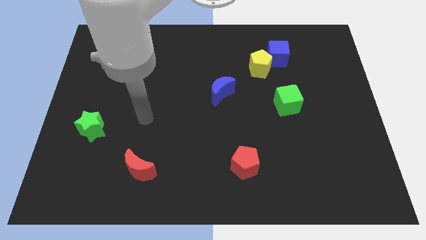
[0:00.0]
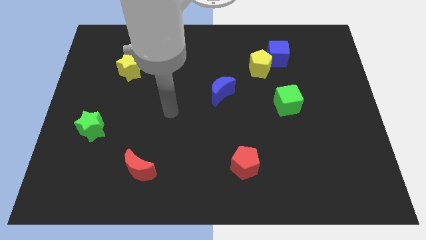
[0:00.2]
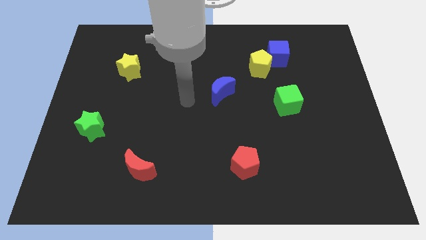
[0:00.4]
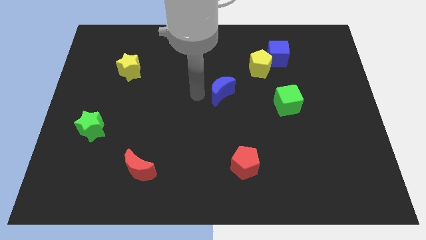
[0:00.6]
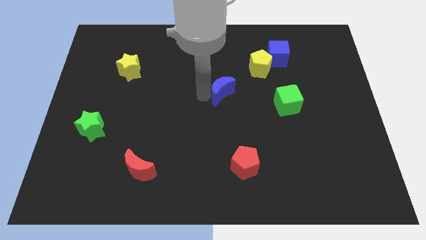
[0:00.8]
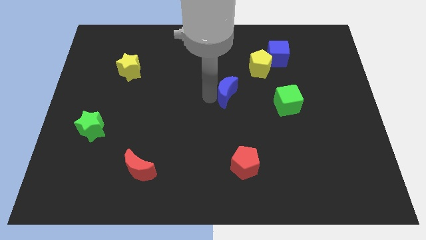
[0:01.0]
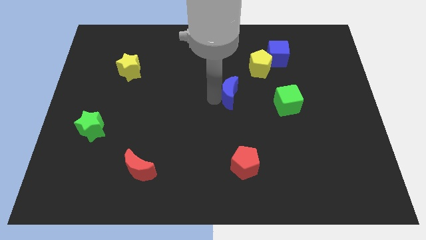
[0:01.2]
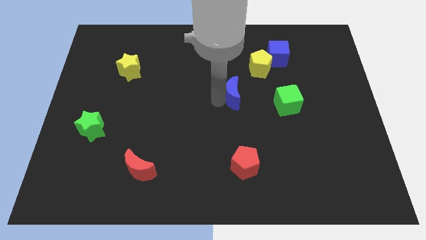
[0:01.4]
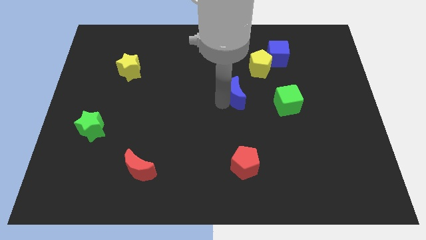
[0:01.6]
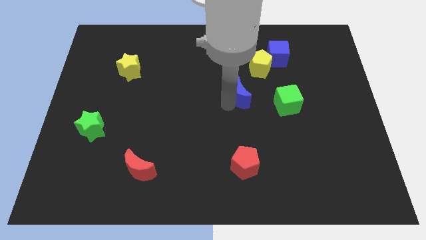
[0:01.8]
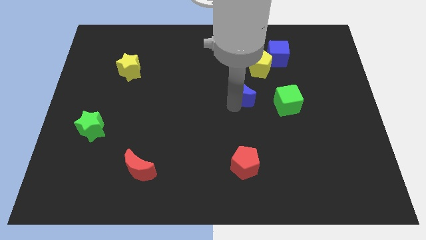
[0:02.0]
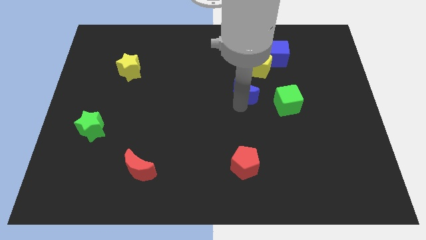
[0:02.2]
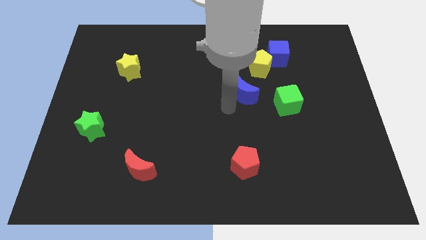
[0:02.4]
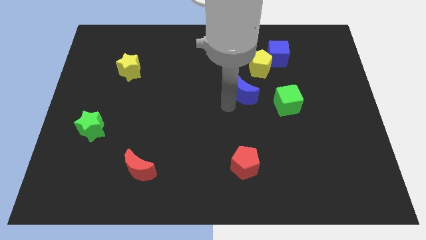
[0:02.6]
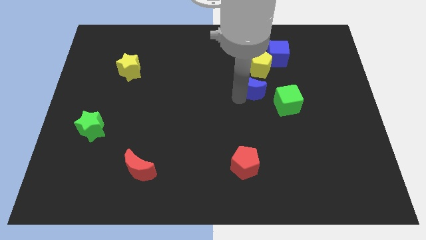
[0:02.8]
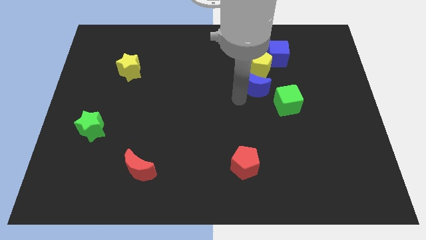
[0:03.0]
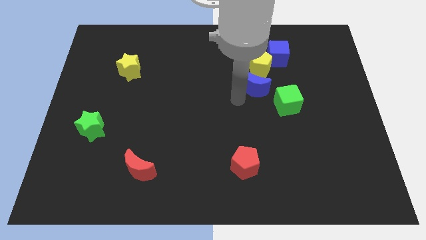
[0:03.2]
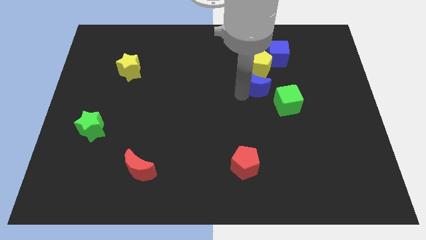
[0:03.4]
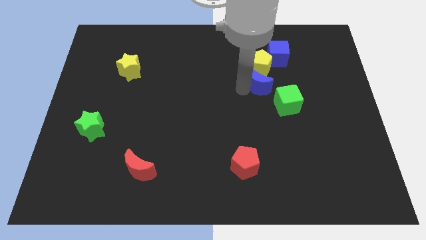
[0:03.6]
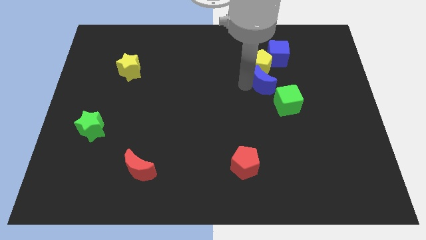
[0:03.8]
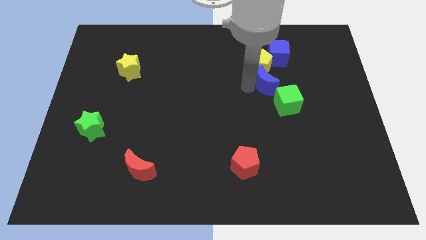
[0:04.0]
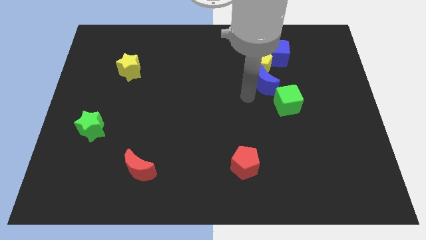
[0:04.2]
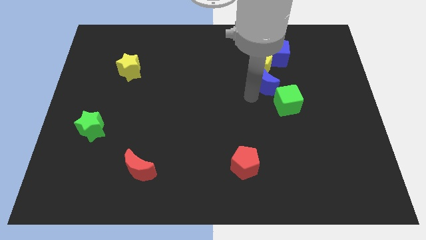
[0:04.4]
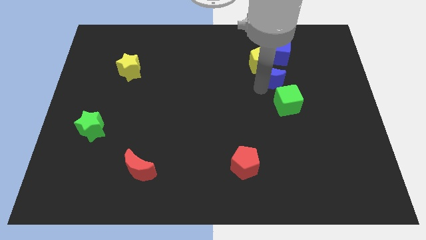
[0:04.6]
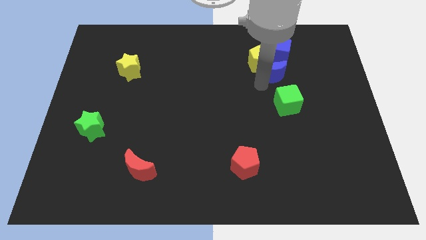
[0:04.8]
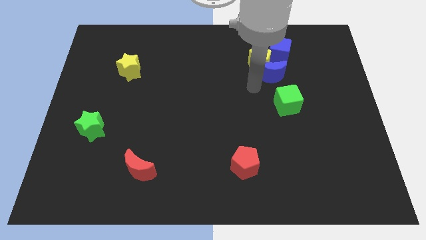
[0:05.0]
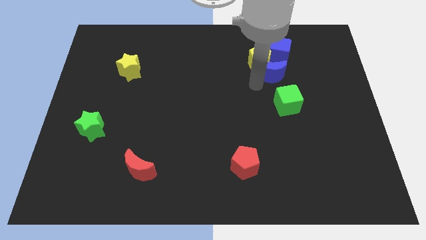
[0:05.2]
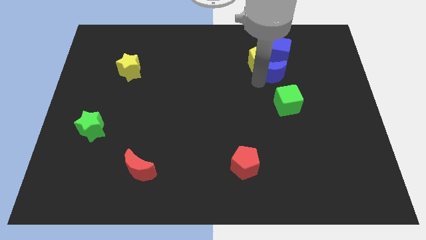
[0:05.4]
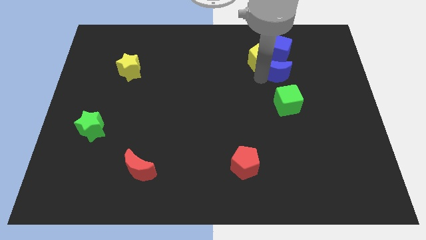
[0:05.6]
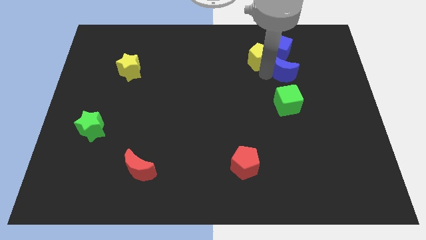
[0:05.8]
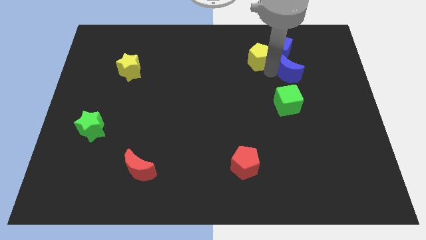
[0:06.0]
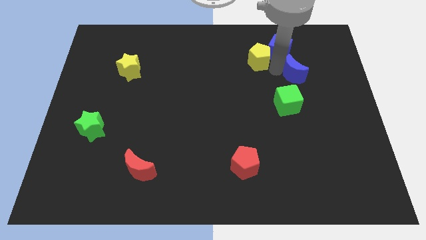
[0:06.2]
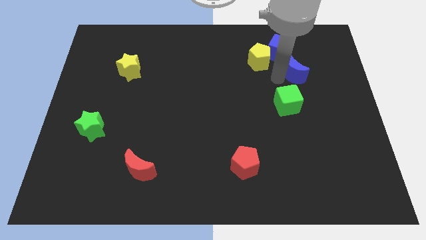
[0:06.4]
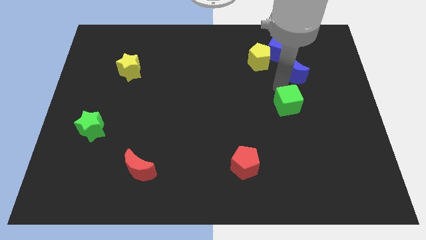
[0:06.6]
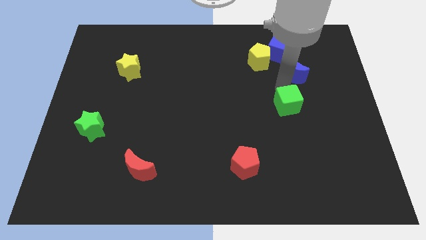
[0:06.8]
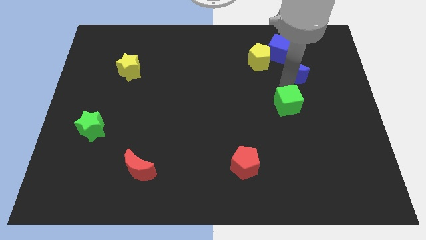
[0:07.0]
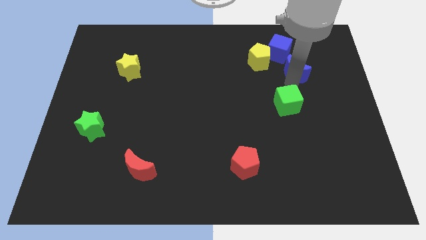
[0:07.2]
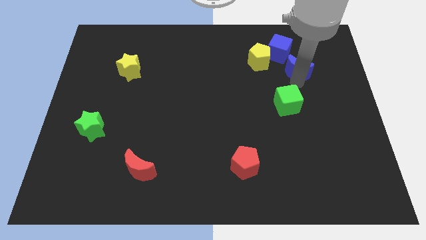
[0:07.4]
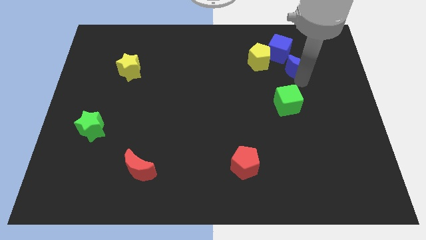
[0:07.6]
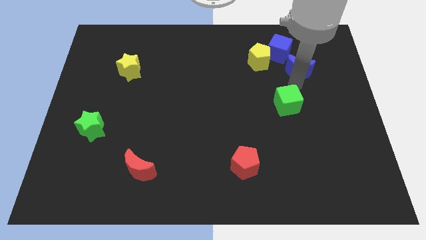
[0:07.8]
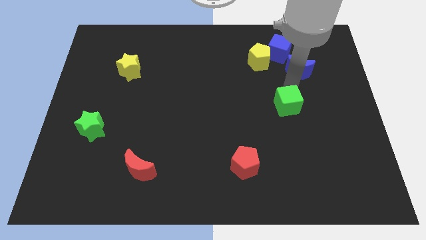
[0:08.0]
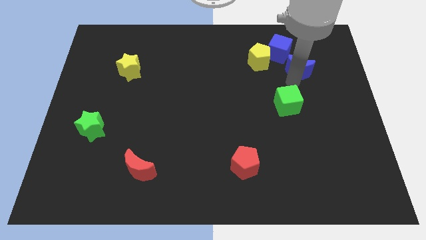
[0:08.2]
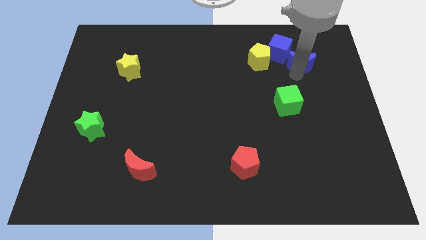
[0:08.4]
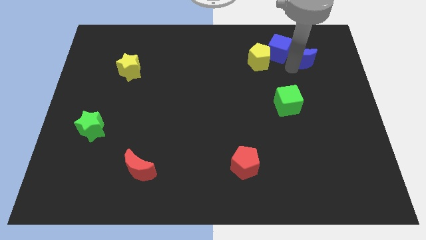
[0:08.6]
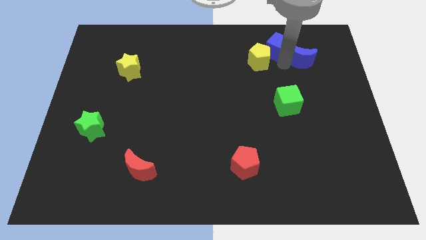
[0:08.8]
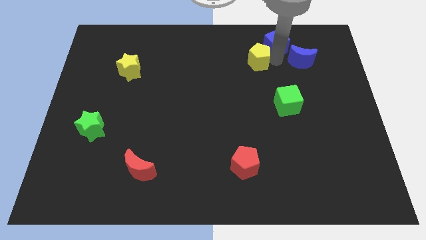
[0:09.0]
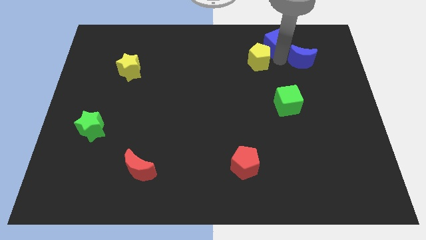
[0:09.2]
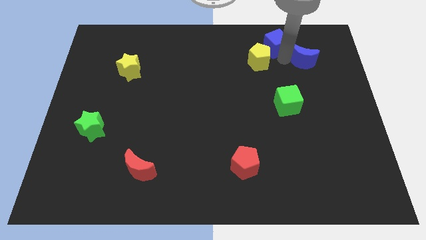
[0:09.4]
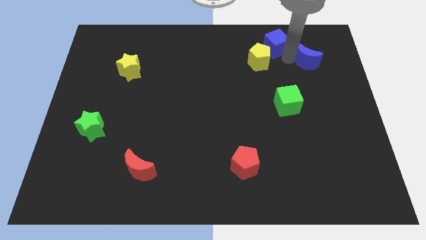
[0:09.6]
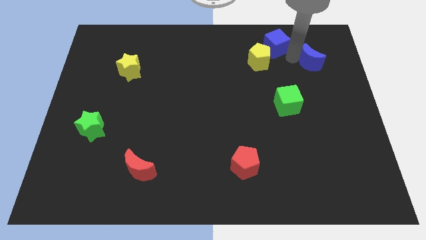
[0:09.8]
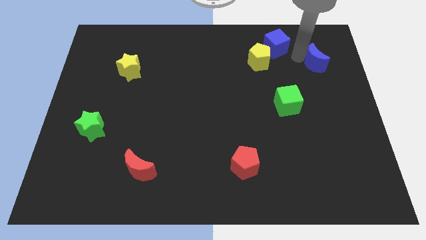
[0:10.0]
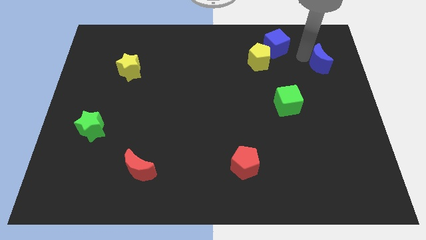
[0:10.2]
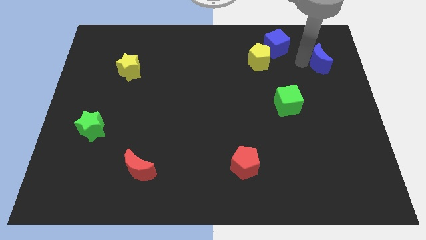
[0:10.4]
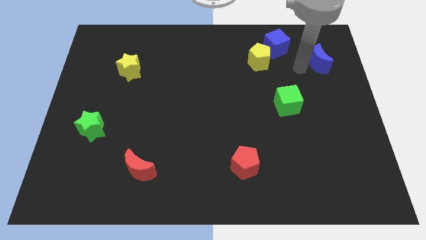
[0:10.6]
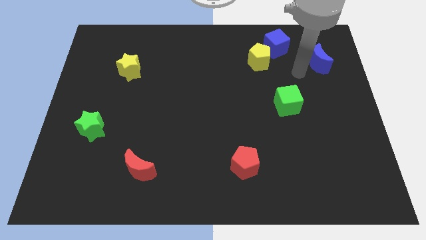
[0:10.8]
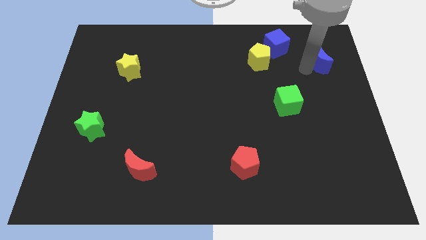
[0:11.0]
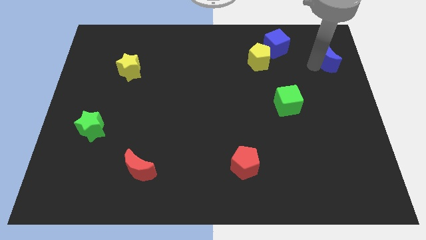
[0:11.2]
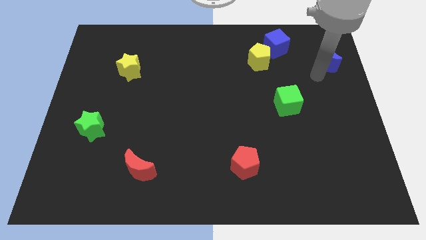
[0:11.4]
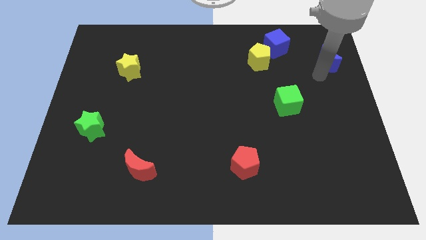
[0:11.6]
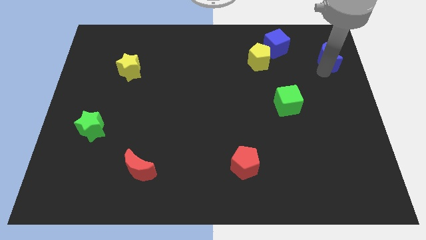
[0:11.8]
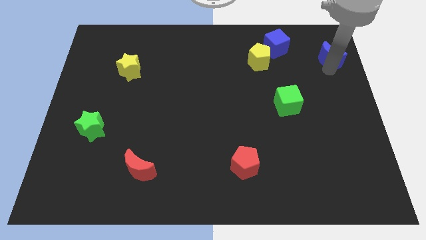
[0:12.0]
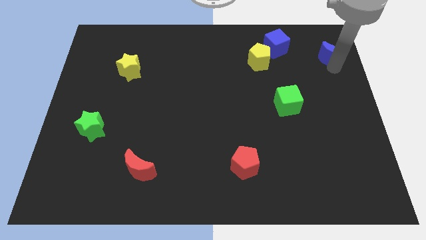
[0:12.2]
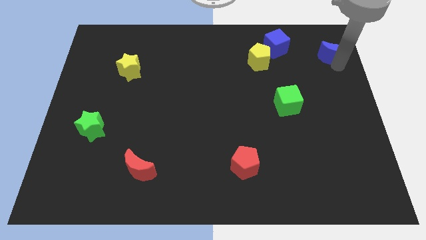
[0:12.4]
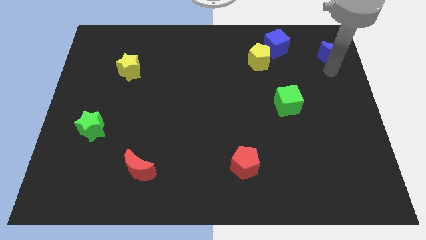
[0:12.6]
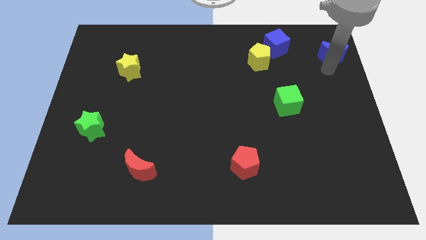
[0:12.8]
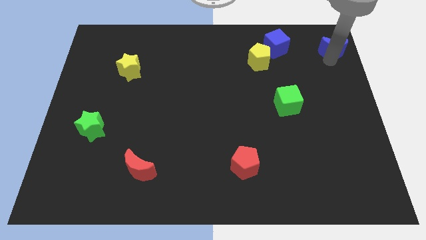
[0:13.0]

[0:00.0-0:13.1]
slide the blue moon to the top right of the board
